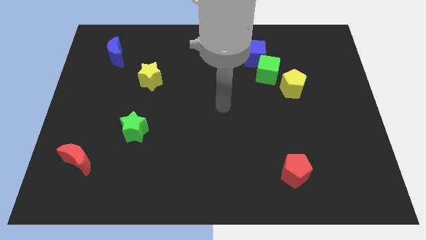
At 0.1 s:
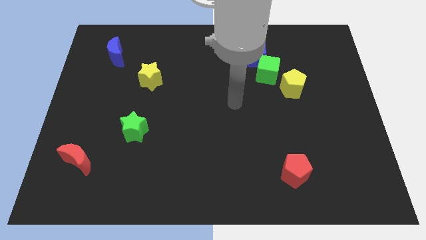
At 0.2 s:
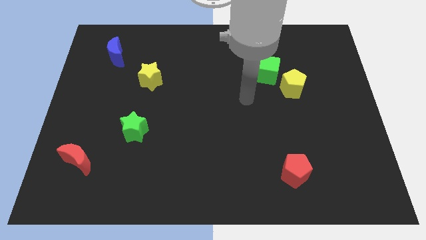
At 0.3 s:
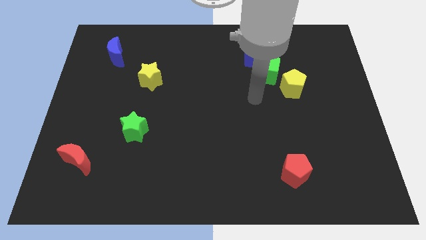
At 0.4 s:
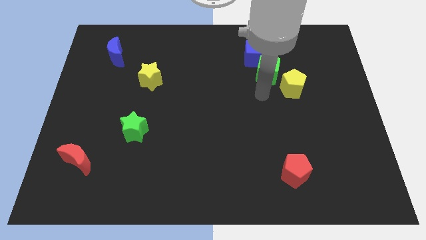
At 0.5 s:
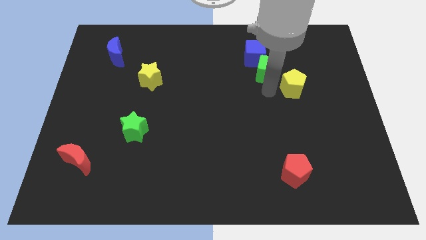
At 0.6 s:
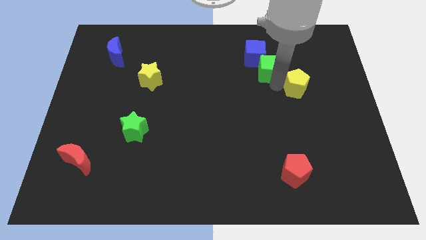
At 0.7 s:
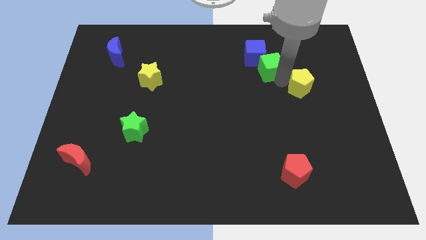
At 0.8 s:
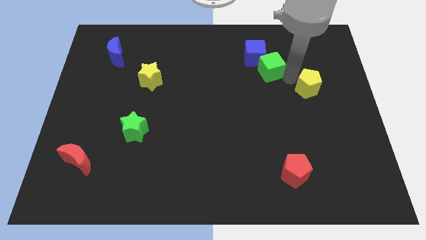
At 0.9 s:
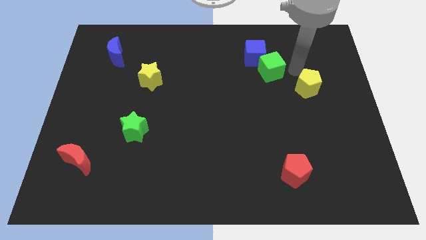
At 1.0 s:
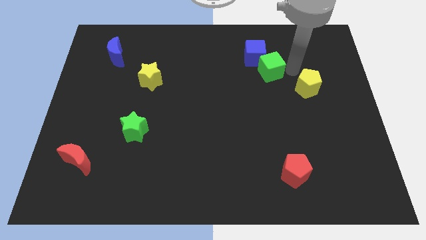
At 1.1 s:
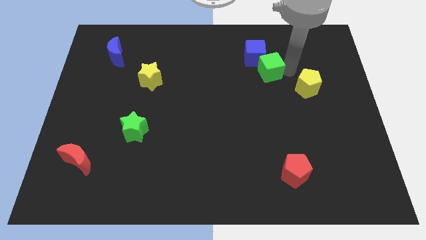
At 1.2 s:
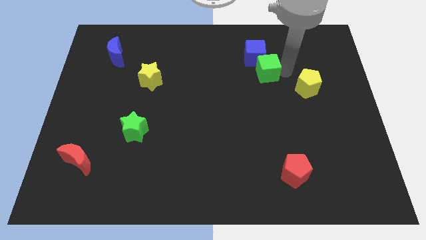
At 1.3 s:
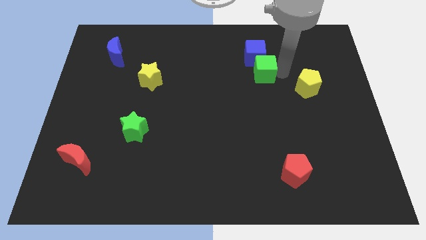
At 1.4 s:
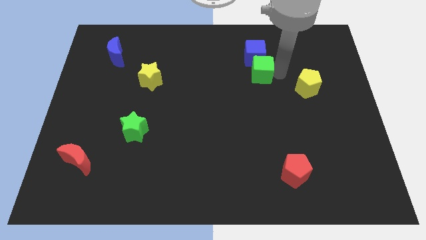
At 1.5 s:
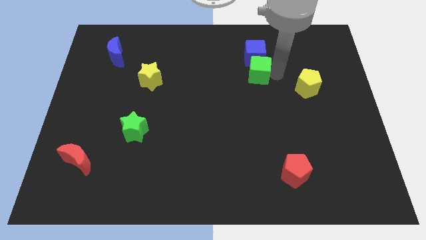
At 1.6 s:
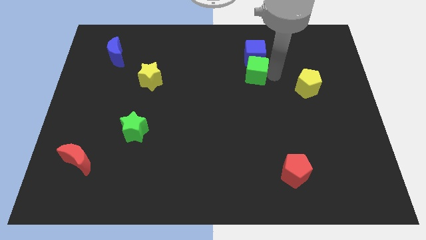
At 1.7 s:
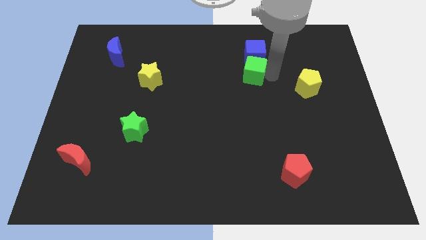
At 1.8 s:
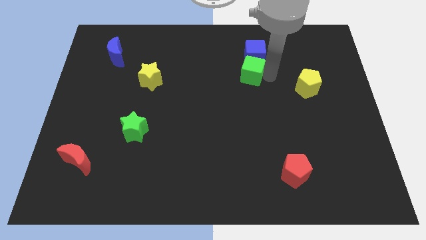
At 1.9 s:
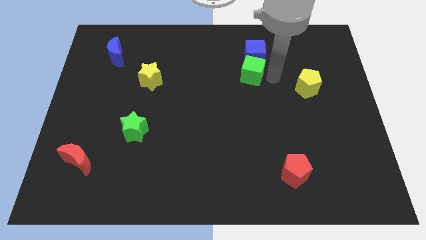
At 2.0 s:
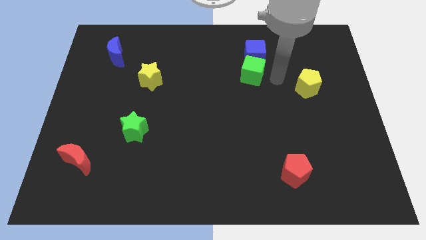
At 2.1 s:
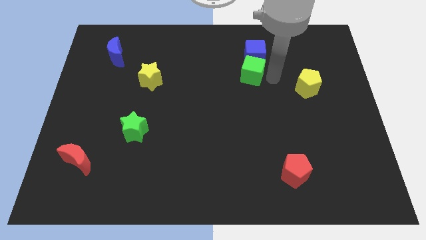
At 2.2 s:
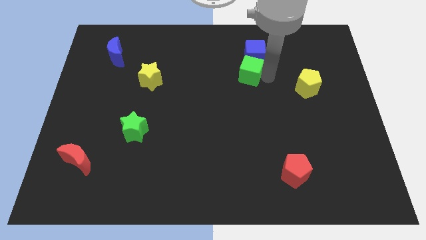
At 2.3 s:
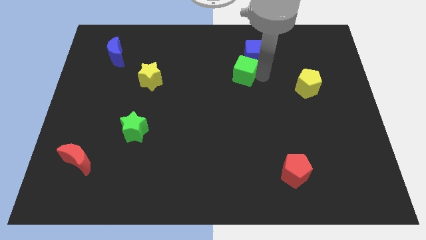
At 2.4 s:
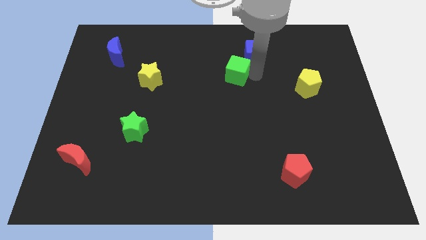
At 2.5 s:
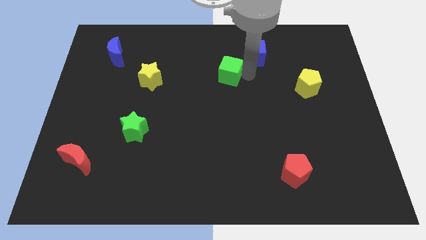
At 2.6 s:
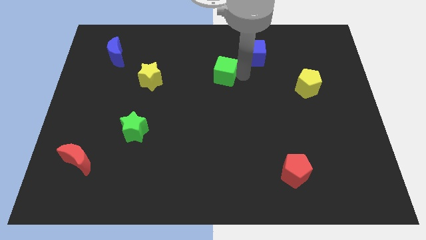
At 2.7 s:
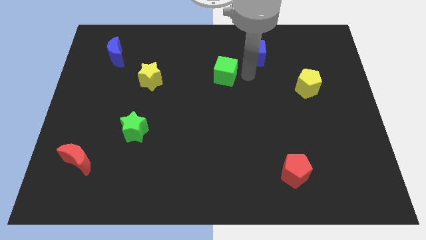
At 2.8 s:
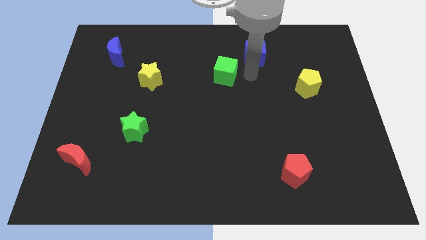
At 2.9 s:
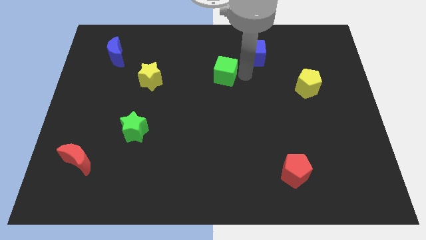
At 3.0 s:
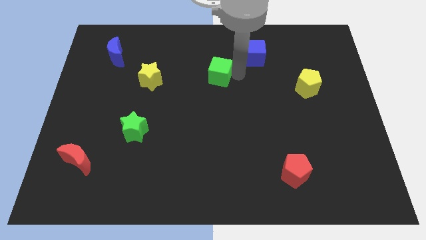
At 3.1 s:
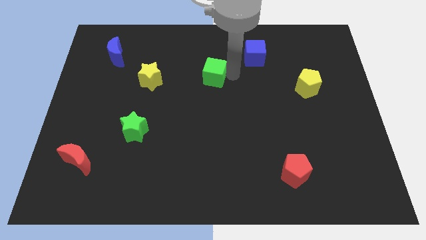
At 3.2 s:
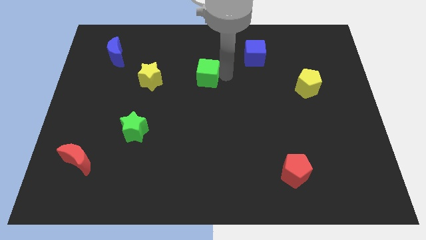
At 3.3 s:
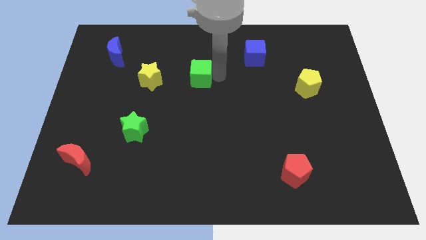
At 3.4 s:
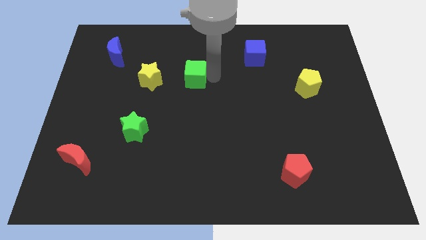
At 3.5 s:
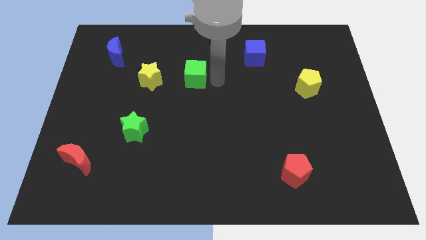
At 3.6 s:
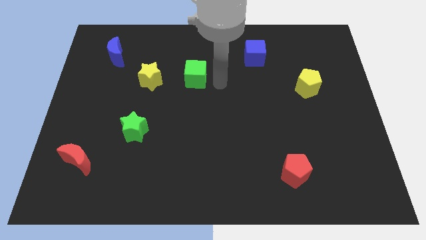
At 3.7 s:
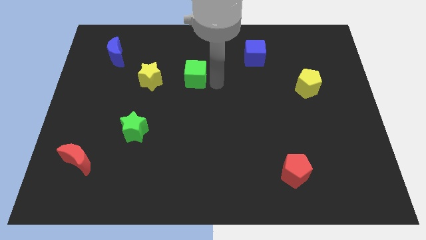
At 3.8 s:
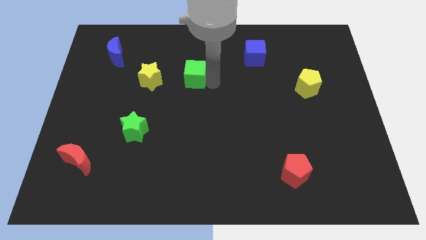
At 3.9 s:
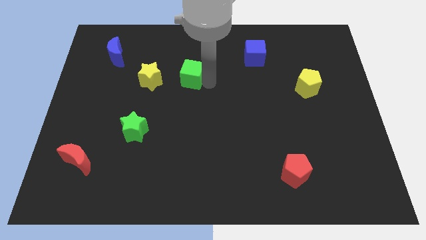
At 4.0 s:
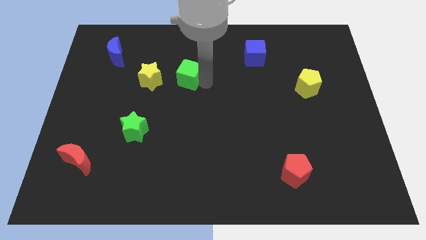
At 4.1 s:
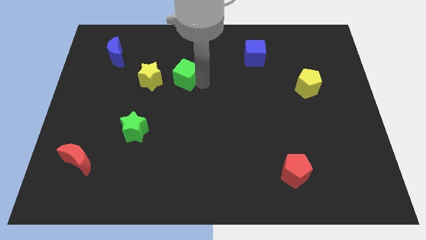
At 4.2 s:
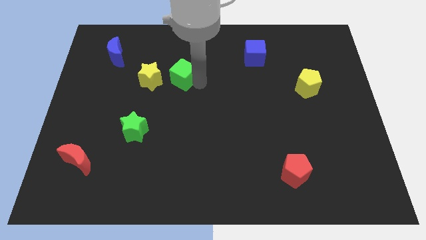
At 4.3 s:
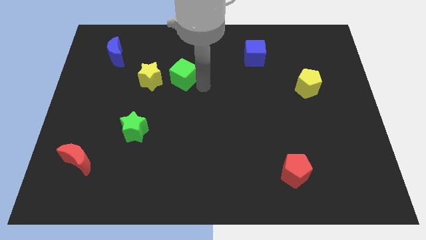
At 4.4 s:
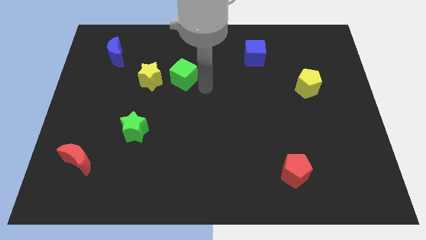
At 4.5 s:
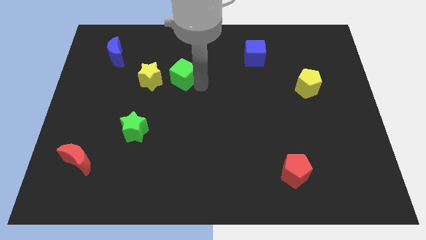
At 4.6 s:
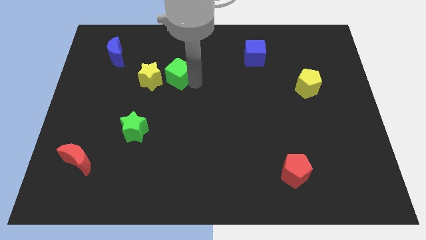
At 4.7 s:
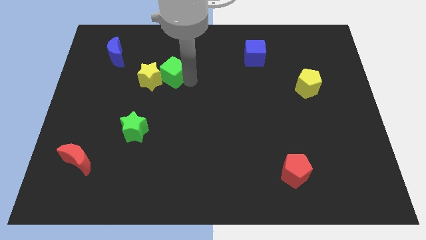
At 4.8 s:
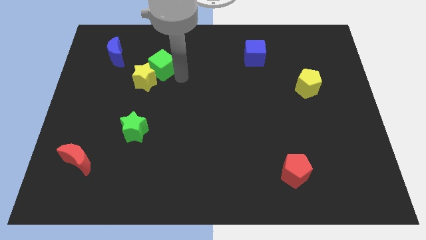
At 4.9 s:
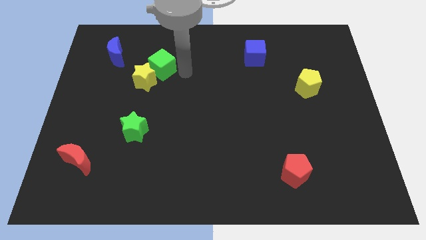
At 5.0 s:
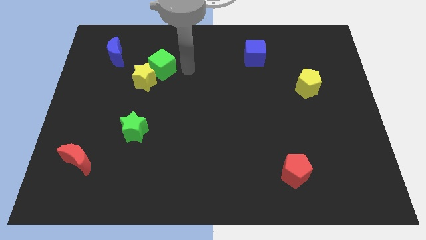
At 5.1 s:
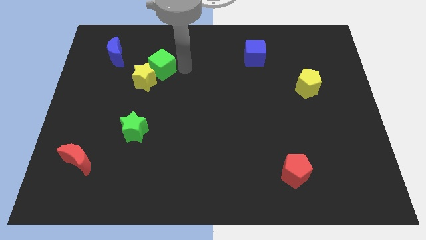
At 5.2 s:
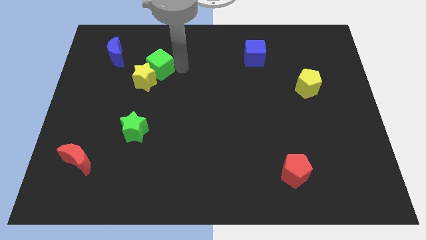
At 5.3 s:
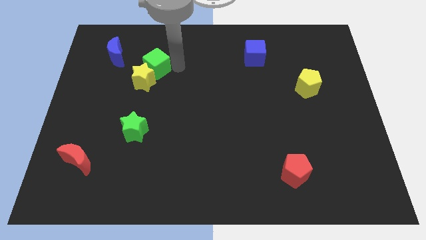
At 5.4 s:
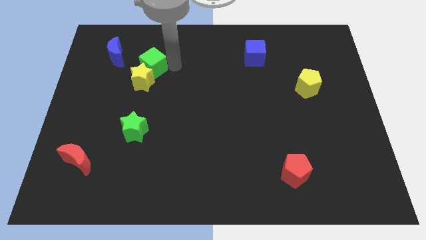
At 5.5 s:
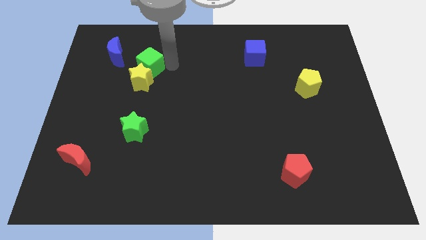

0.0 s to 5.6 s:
put the green cube diagonally up and to the left of the yellow star

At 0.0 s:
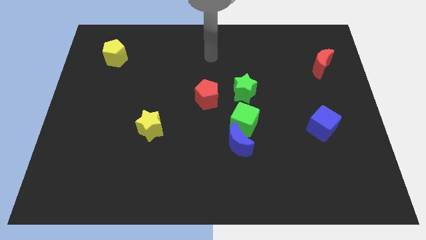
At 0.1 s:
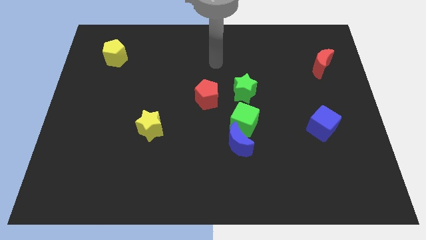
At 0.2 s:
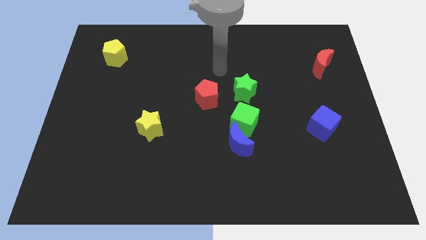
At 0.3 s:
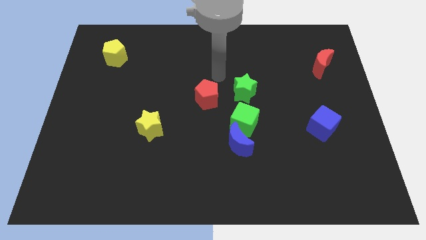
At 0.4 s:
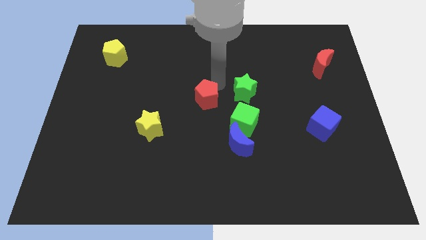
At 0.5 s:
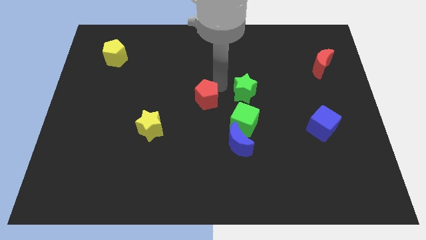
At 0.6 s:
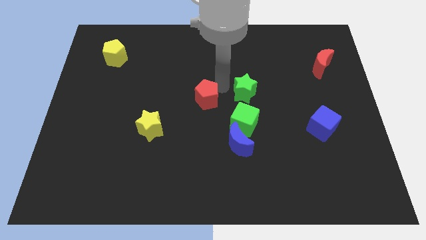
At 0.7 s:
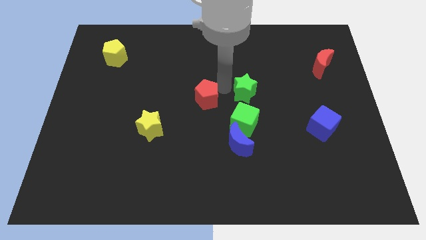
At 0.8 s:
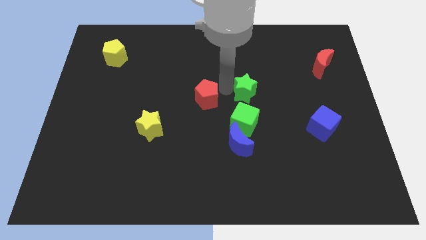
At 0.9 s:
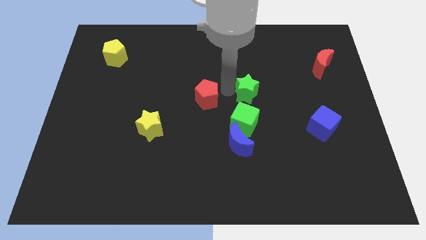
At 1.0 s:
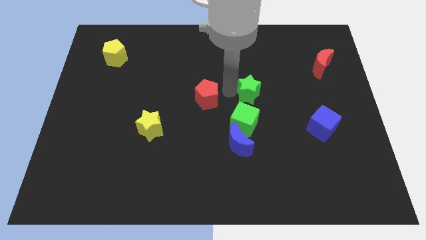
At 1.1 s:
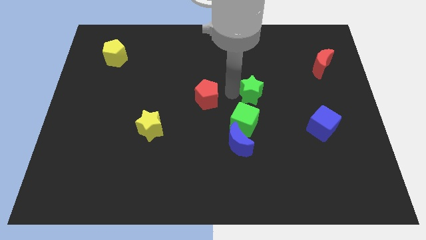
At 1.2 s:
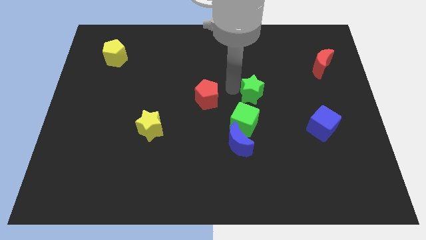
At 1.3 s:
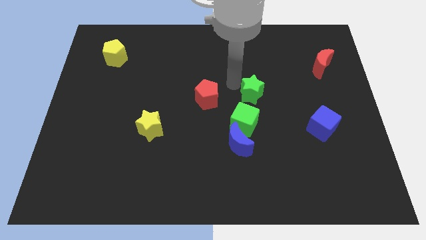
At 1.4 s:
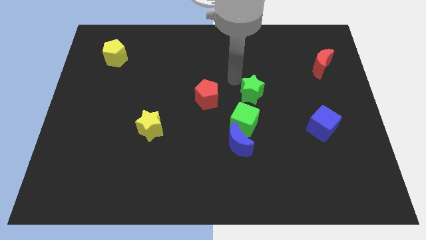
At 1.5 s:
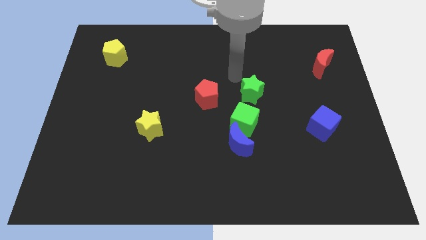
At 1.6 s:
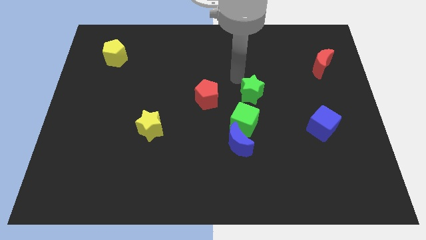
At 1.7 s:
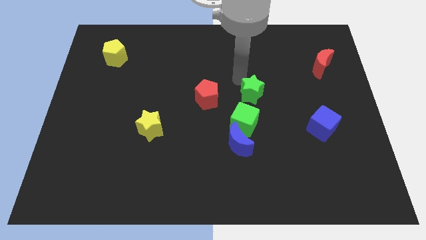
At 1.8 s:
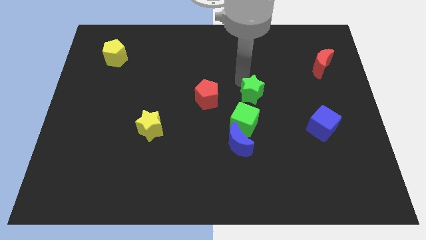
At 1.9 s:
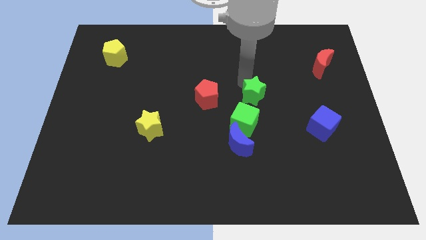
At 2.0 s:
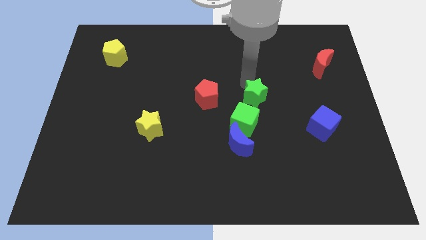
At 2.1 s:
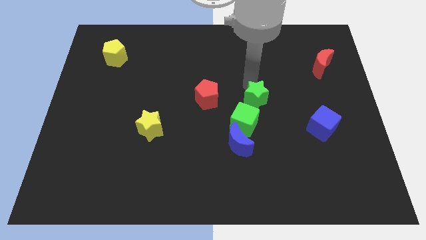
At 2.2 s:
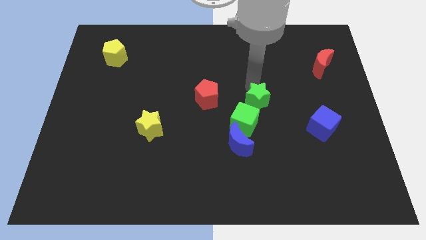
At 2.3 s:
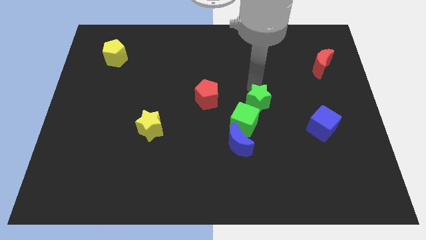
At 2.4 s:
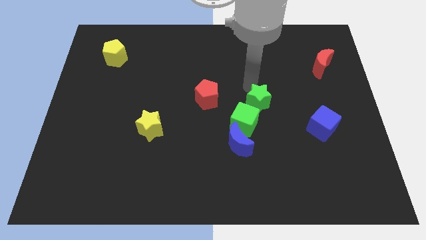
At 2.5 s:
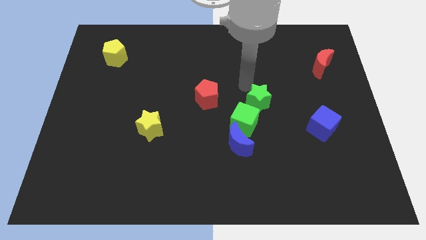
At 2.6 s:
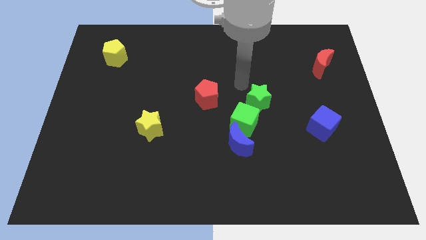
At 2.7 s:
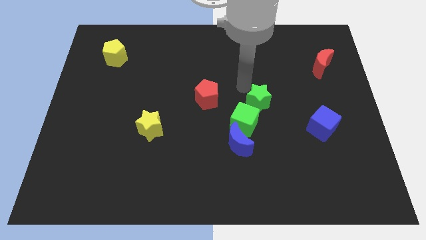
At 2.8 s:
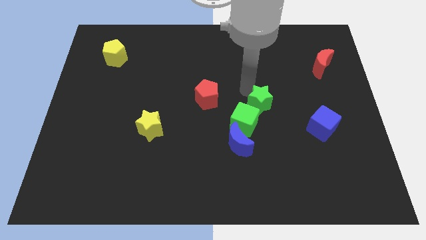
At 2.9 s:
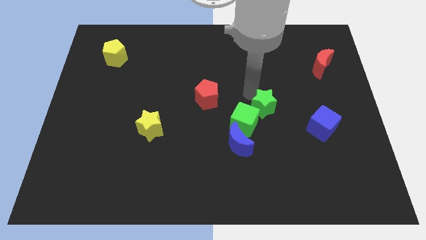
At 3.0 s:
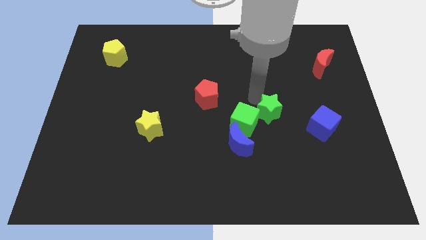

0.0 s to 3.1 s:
push the green star just left of the blue cube
